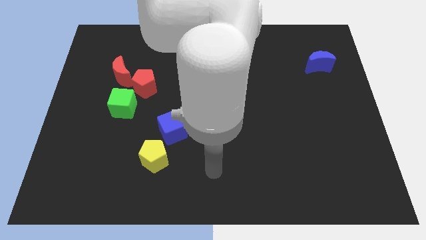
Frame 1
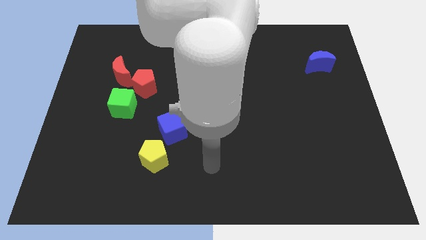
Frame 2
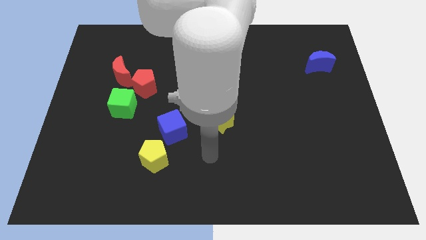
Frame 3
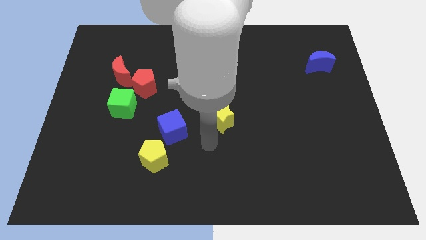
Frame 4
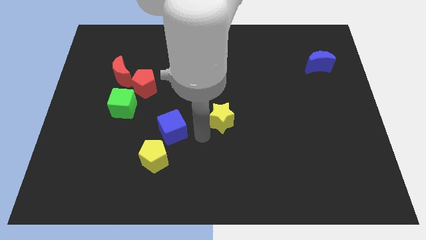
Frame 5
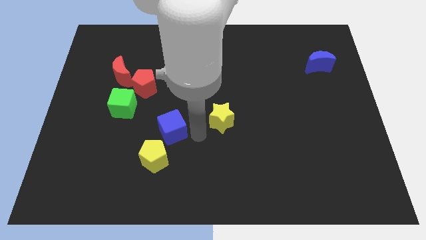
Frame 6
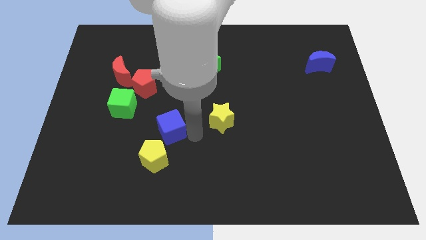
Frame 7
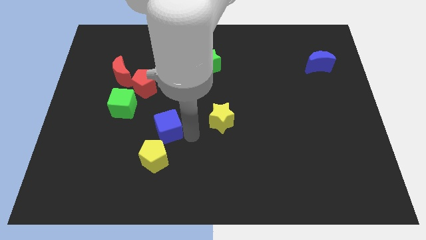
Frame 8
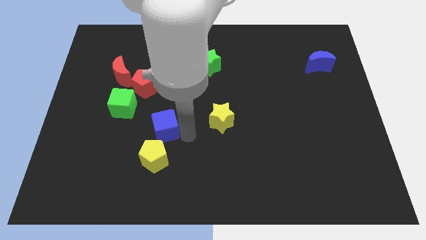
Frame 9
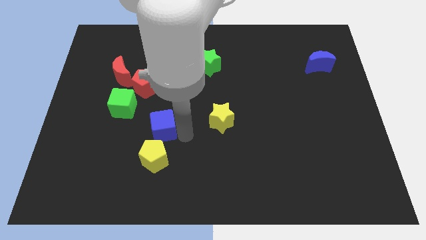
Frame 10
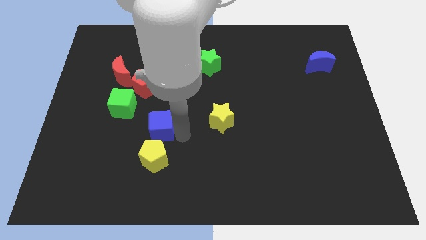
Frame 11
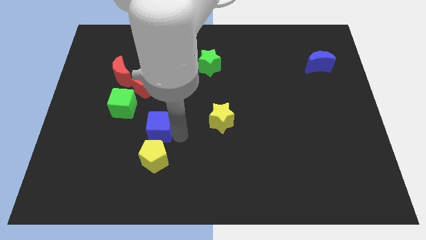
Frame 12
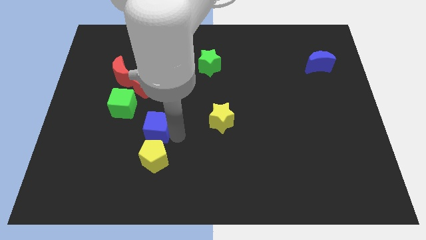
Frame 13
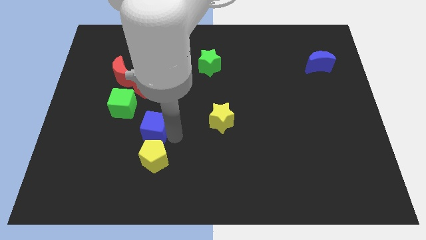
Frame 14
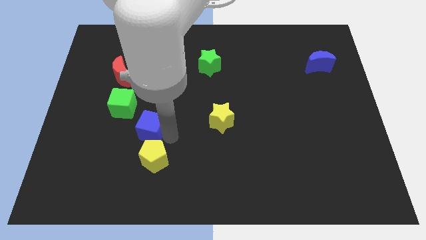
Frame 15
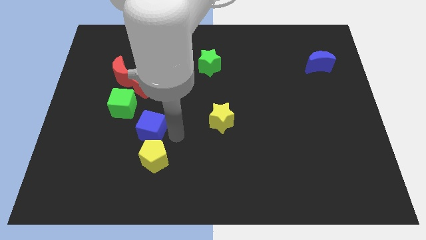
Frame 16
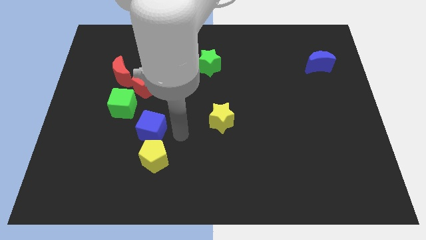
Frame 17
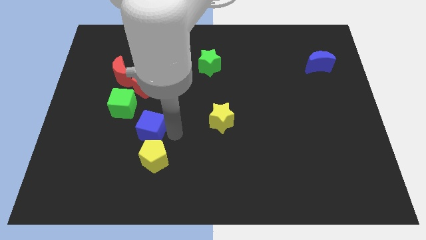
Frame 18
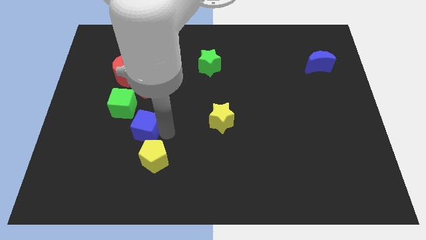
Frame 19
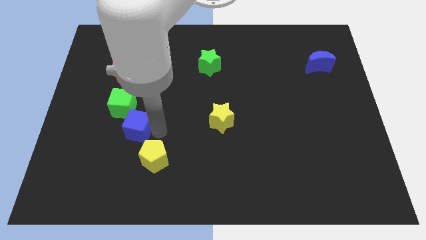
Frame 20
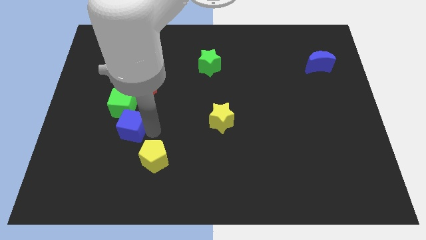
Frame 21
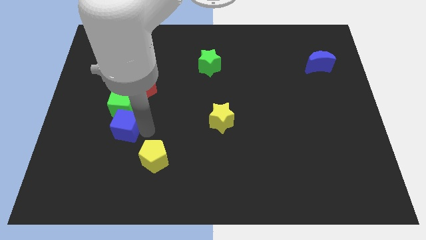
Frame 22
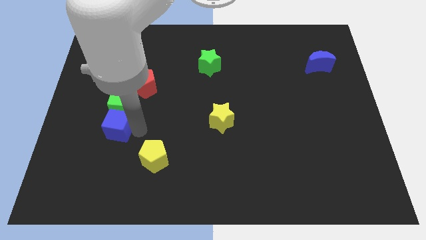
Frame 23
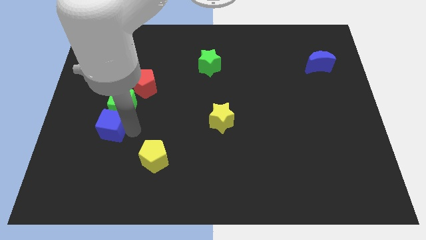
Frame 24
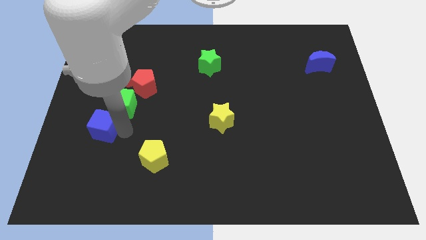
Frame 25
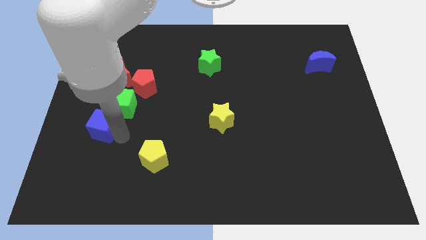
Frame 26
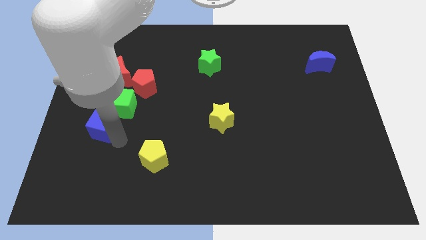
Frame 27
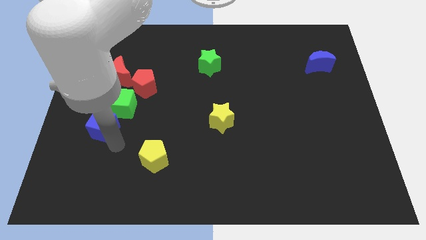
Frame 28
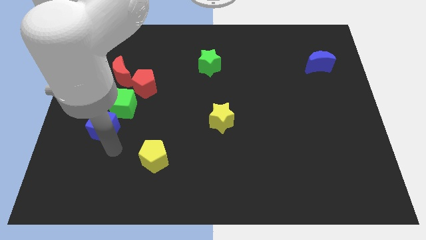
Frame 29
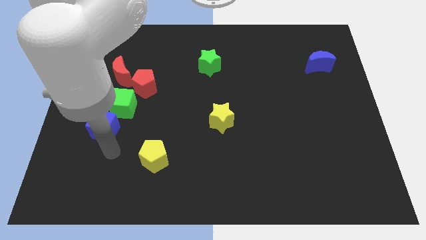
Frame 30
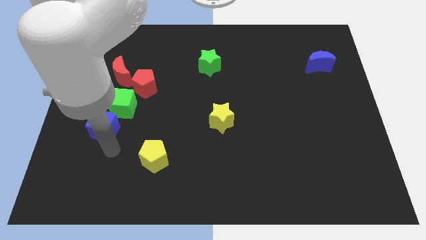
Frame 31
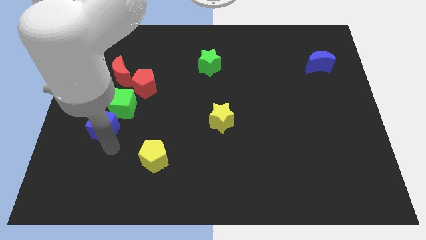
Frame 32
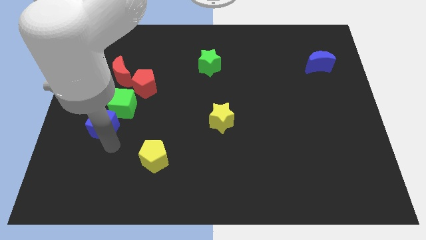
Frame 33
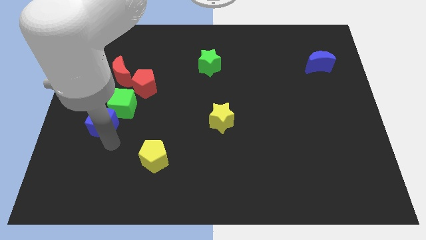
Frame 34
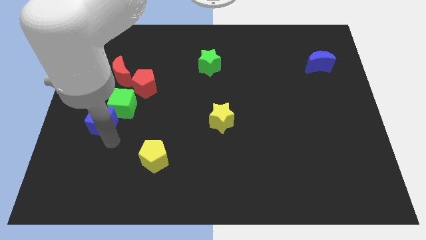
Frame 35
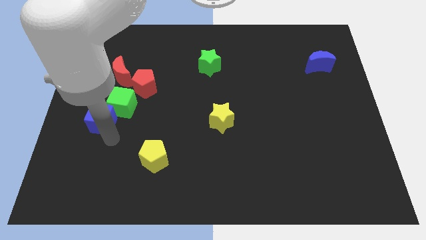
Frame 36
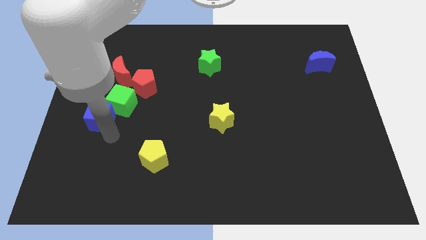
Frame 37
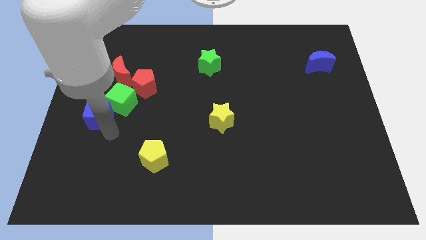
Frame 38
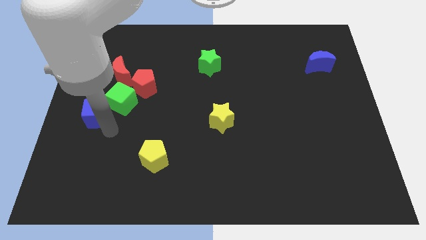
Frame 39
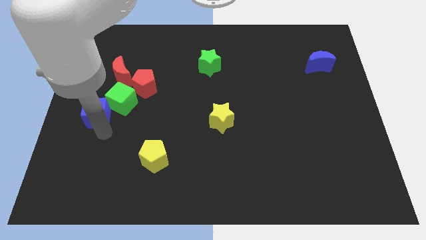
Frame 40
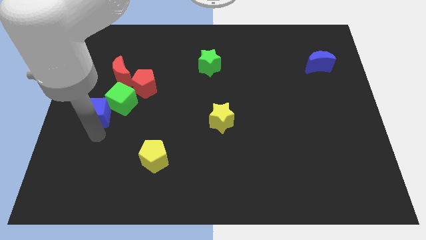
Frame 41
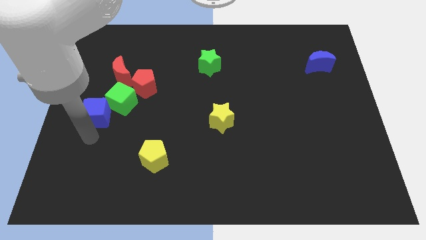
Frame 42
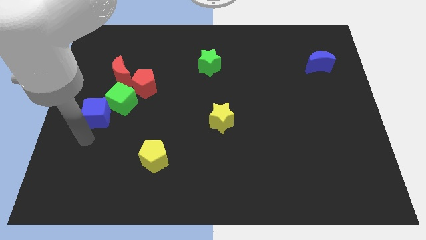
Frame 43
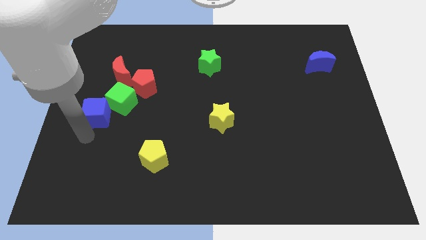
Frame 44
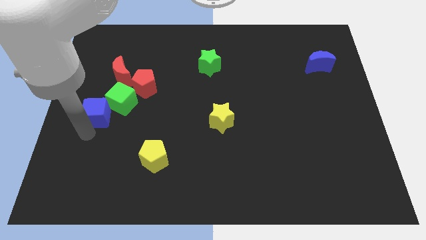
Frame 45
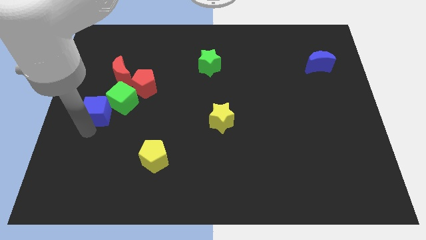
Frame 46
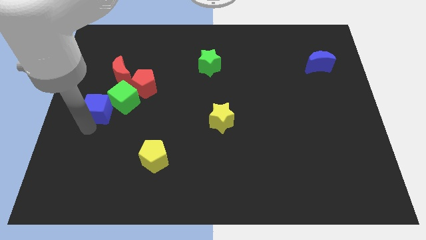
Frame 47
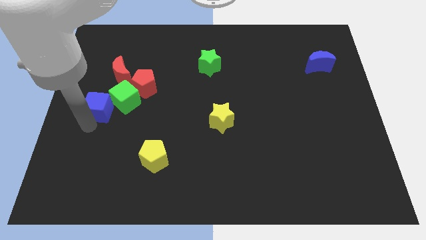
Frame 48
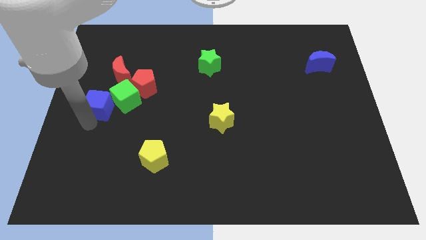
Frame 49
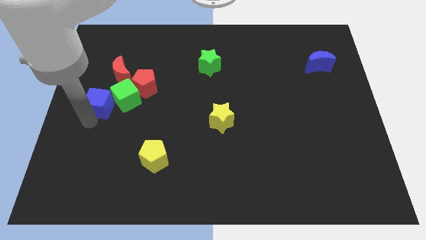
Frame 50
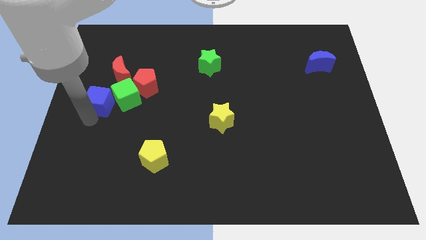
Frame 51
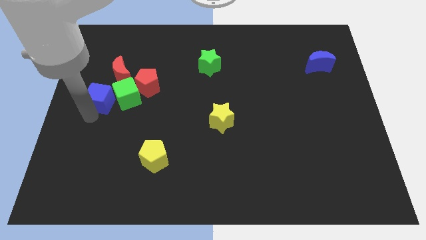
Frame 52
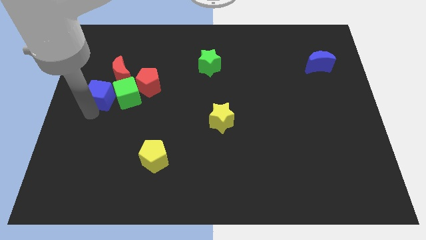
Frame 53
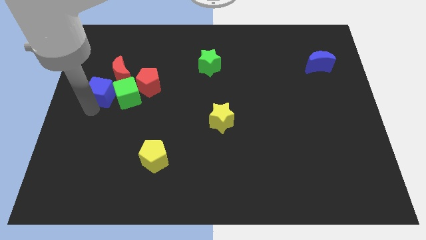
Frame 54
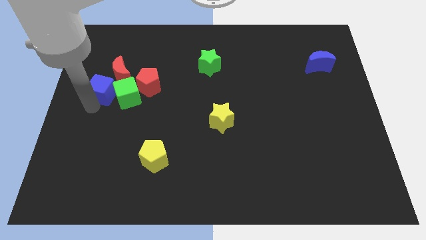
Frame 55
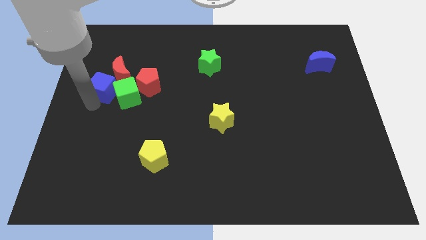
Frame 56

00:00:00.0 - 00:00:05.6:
move the blue cube to the red moon

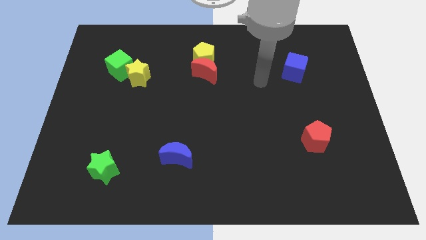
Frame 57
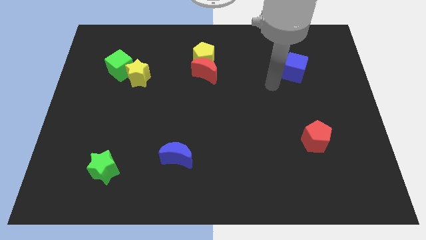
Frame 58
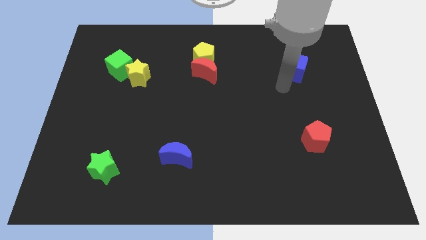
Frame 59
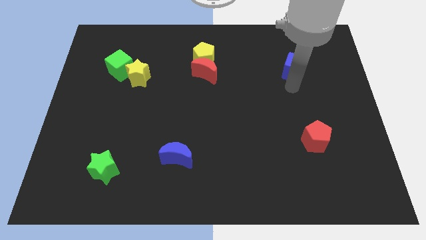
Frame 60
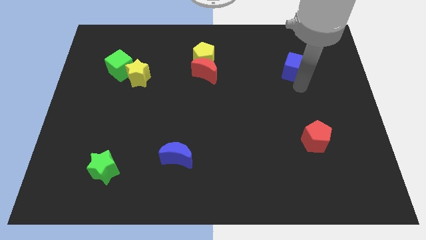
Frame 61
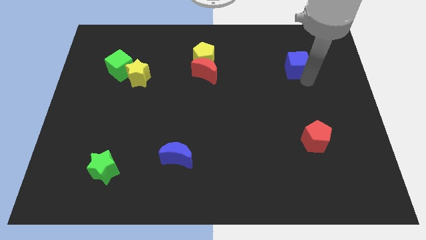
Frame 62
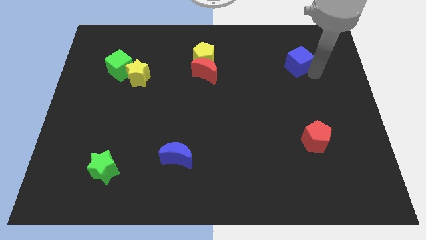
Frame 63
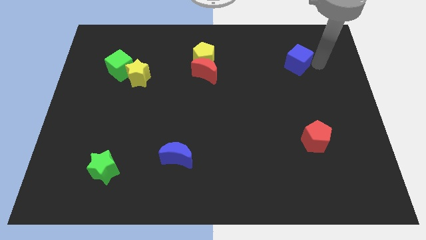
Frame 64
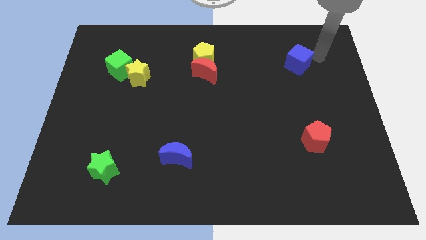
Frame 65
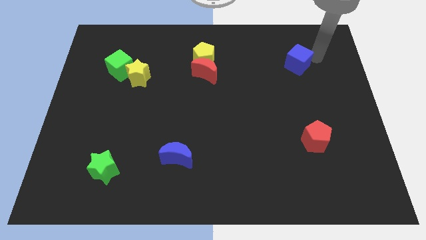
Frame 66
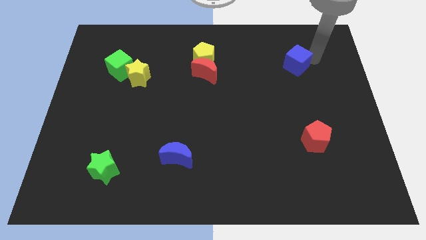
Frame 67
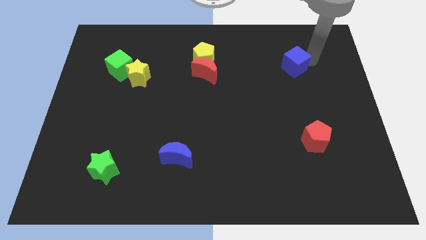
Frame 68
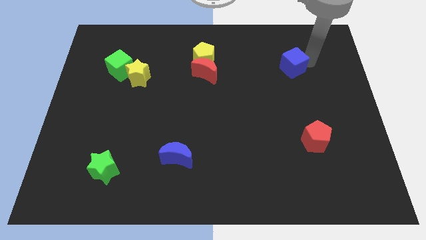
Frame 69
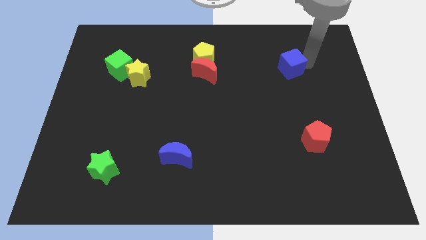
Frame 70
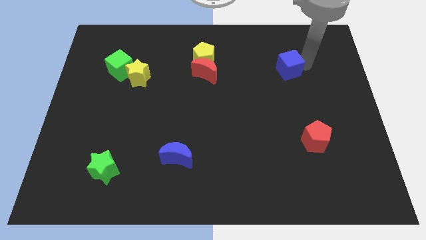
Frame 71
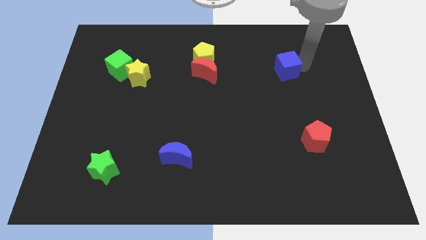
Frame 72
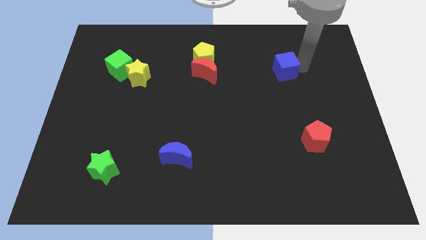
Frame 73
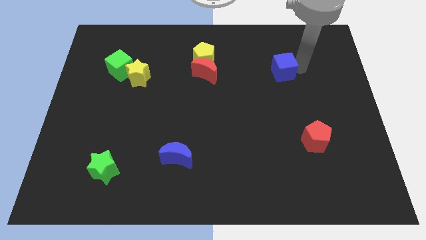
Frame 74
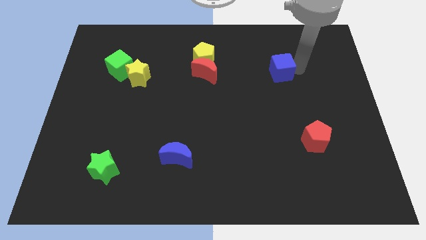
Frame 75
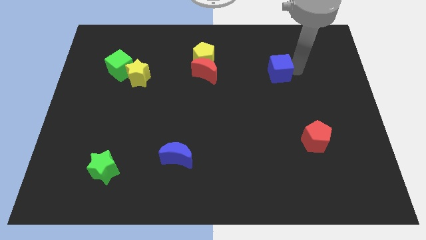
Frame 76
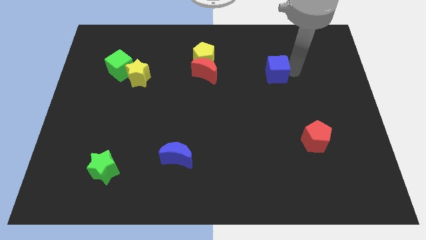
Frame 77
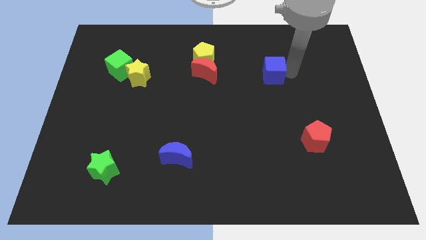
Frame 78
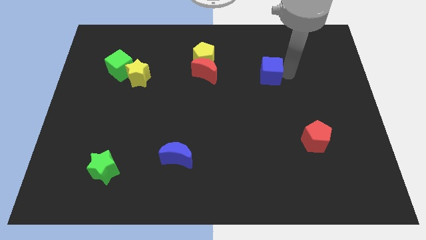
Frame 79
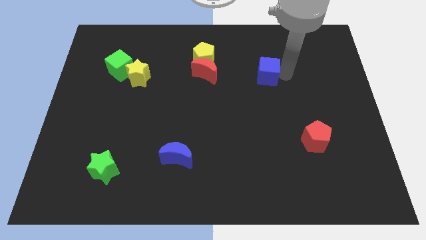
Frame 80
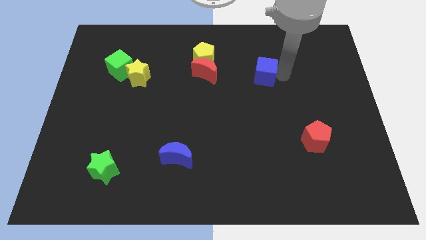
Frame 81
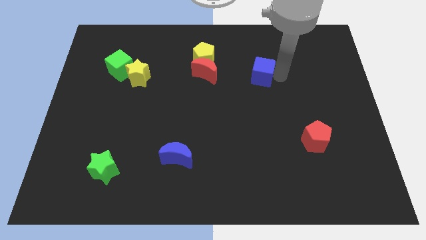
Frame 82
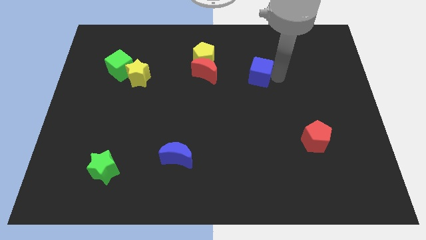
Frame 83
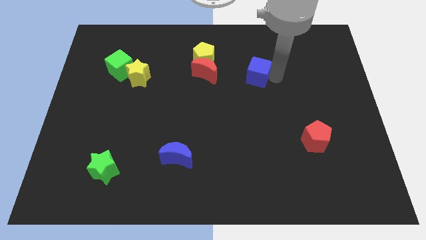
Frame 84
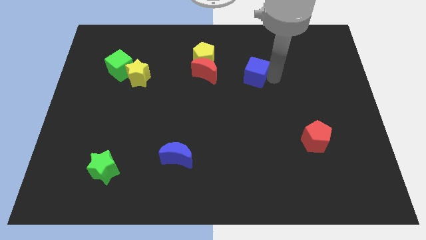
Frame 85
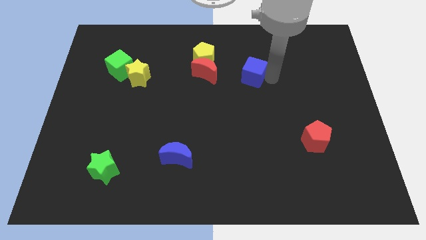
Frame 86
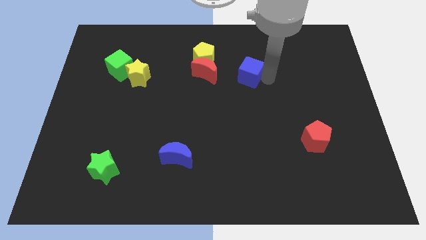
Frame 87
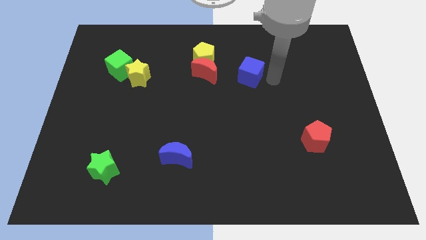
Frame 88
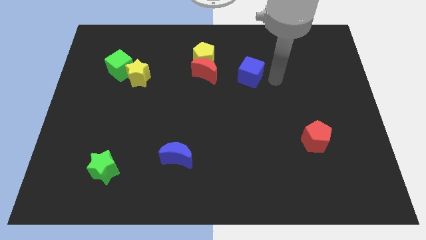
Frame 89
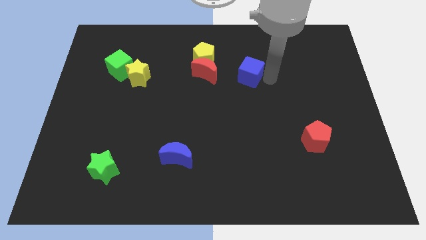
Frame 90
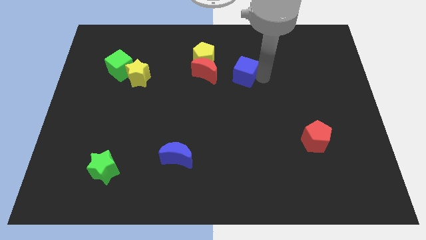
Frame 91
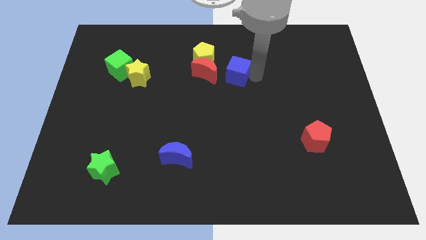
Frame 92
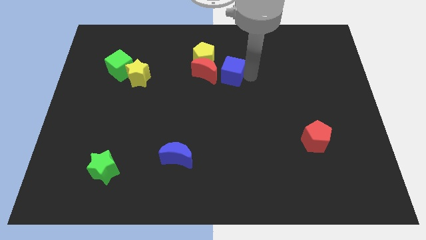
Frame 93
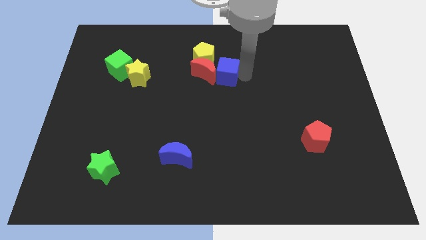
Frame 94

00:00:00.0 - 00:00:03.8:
slide the blue cube to the red moon
